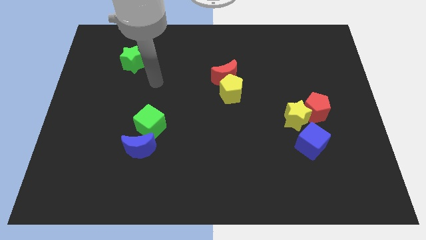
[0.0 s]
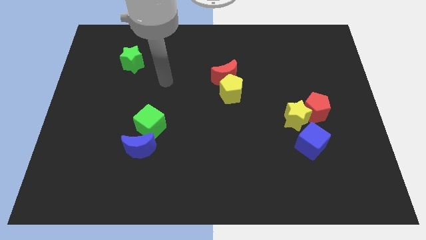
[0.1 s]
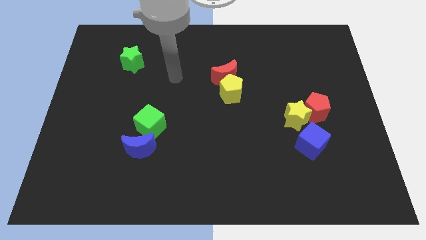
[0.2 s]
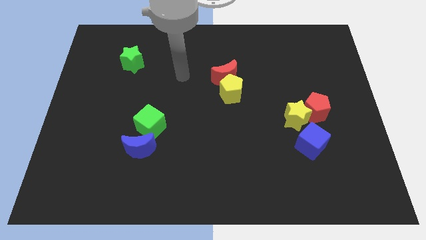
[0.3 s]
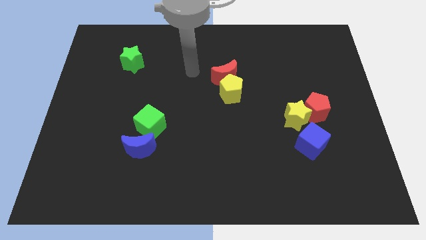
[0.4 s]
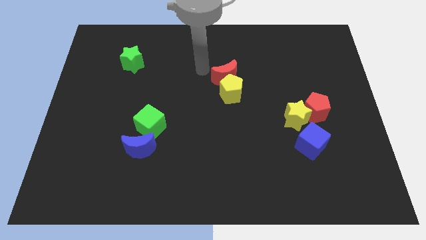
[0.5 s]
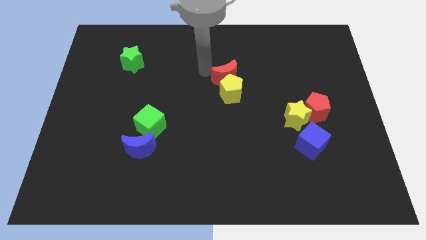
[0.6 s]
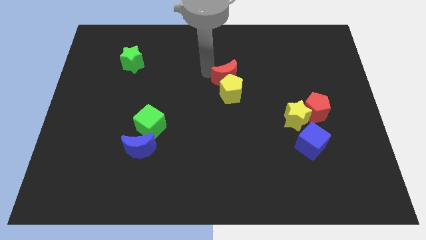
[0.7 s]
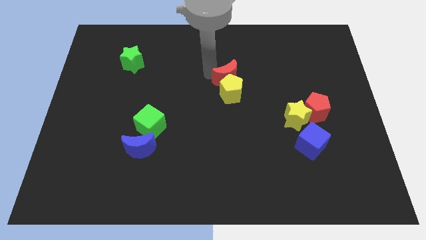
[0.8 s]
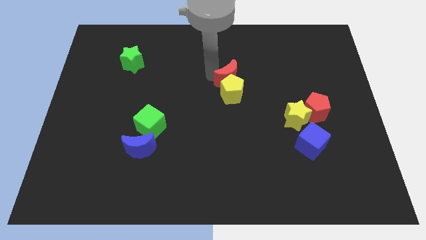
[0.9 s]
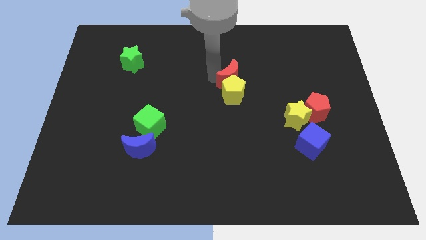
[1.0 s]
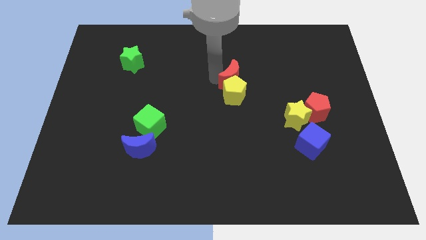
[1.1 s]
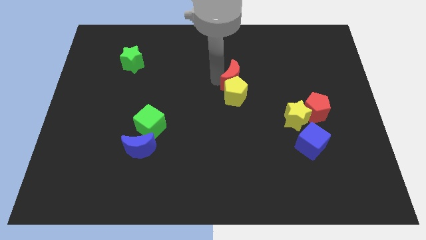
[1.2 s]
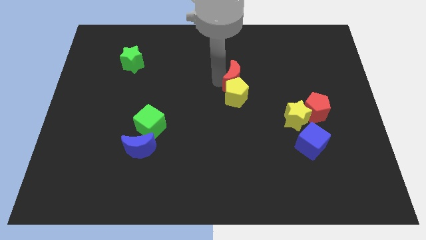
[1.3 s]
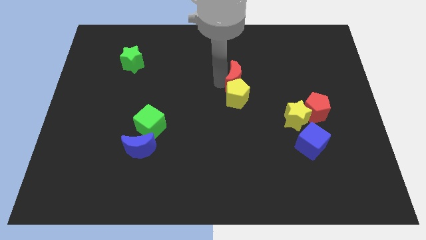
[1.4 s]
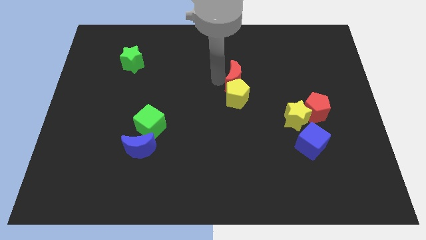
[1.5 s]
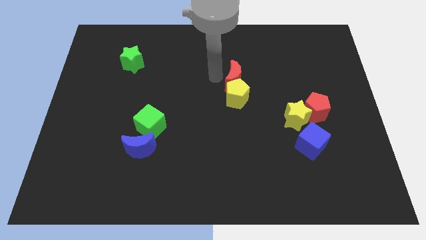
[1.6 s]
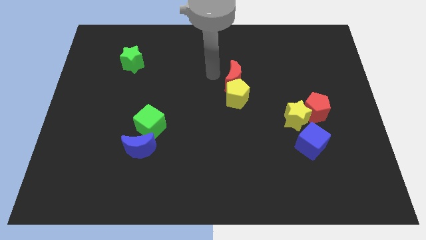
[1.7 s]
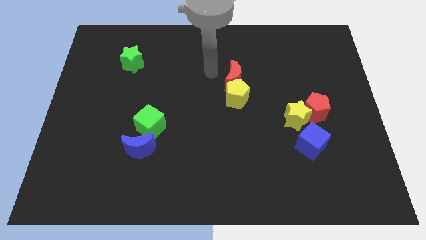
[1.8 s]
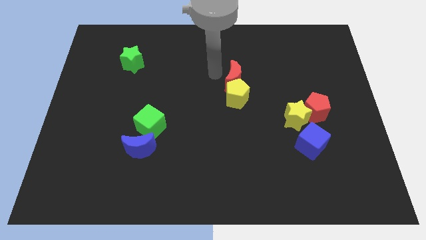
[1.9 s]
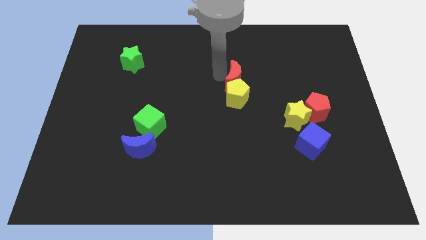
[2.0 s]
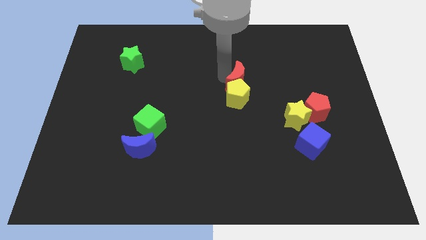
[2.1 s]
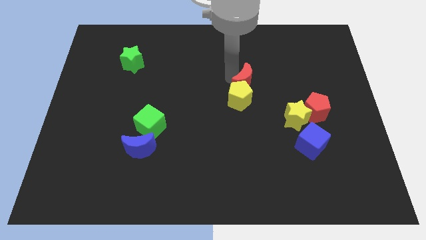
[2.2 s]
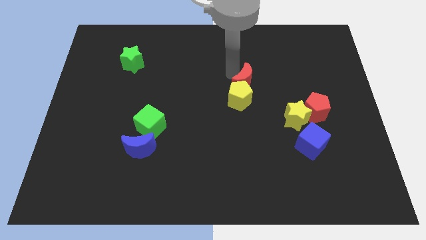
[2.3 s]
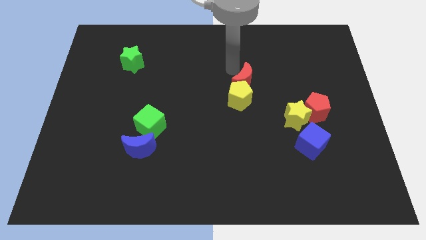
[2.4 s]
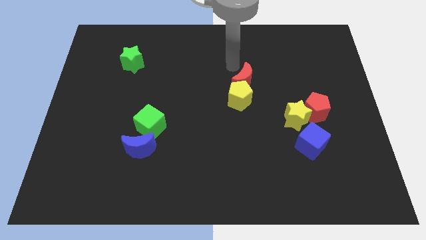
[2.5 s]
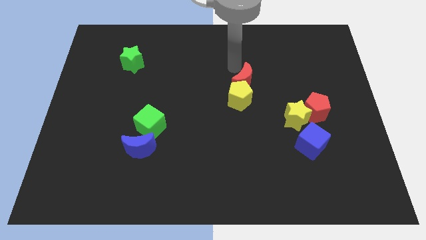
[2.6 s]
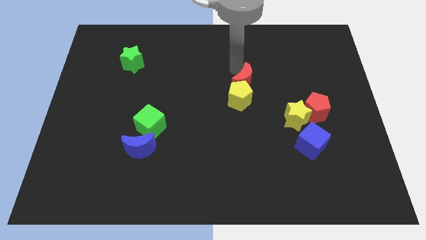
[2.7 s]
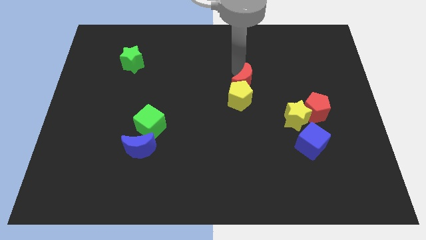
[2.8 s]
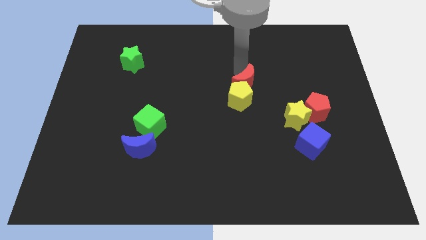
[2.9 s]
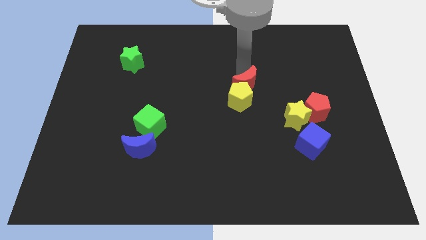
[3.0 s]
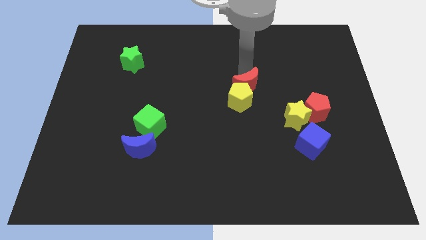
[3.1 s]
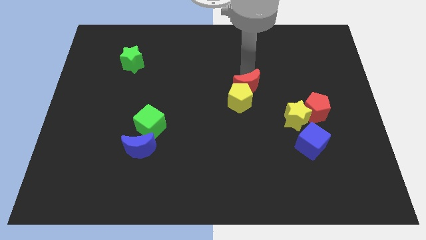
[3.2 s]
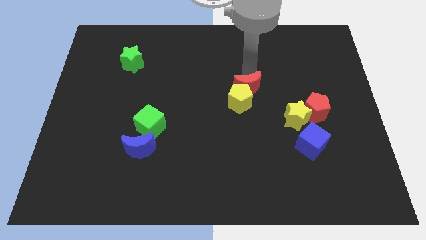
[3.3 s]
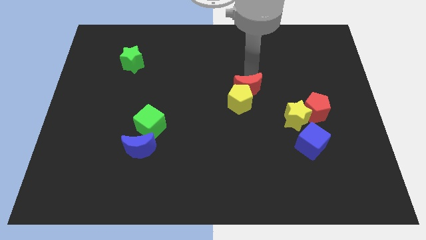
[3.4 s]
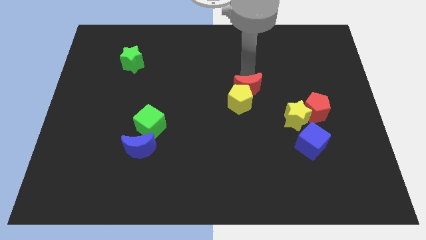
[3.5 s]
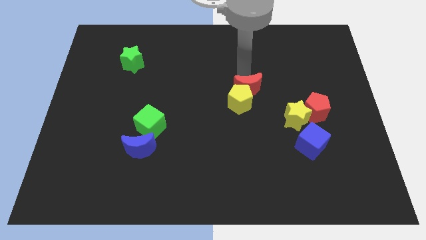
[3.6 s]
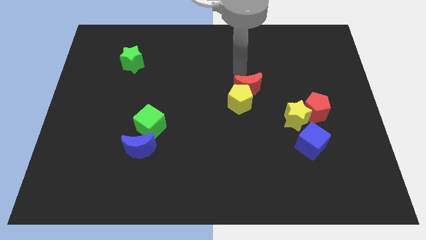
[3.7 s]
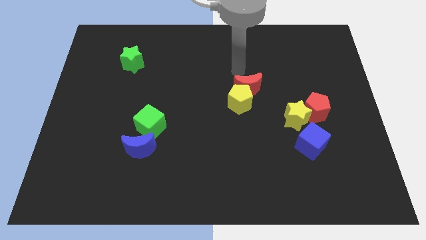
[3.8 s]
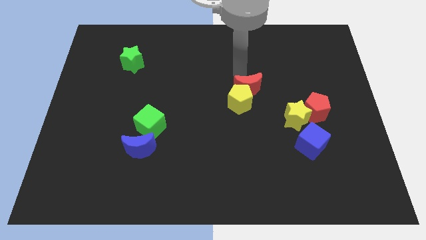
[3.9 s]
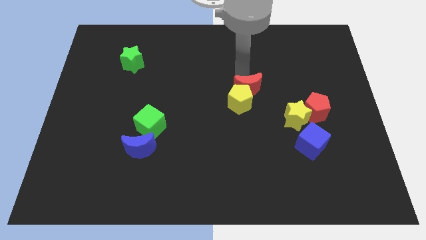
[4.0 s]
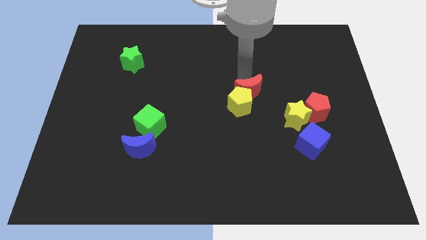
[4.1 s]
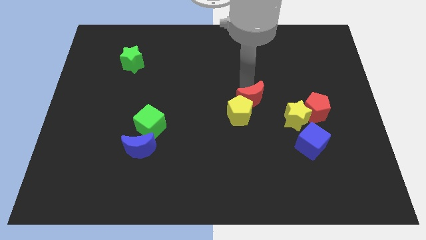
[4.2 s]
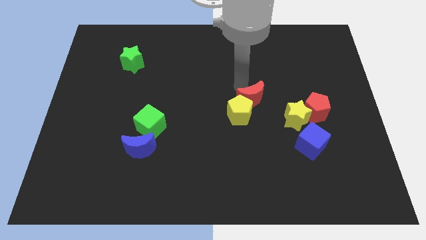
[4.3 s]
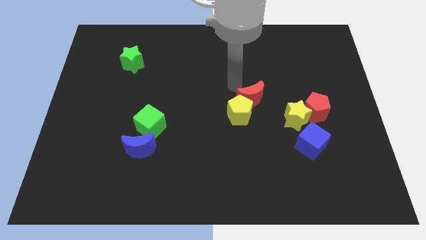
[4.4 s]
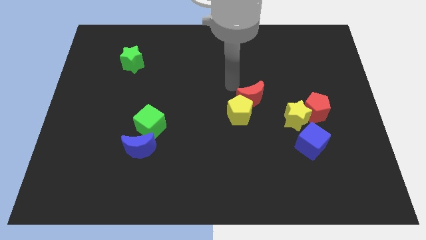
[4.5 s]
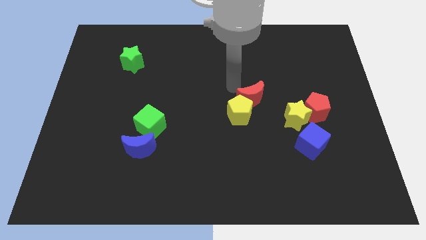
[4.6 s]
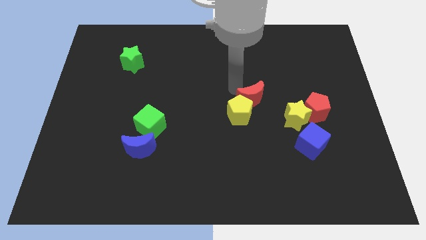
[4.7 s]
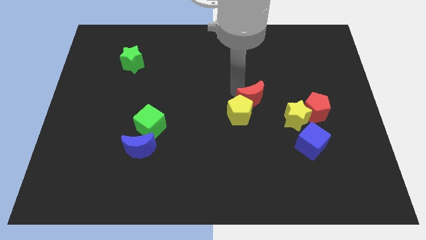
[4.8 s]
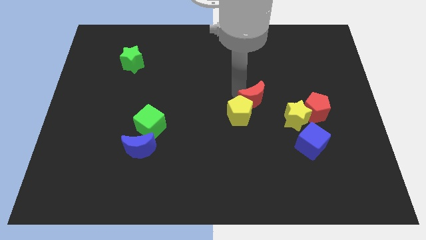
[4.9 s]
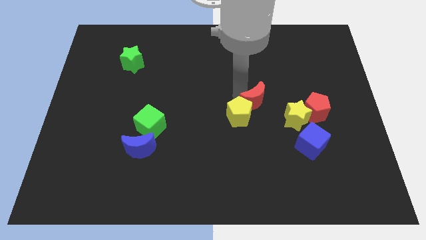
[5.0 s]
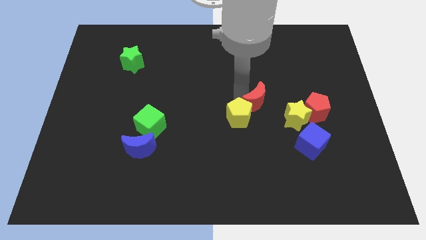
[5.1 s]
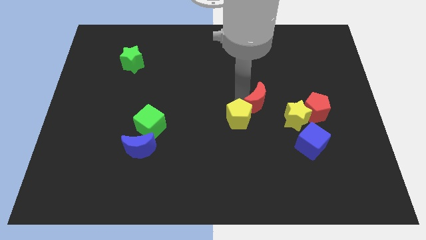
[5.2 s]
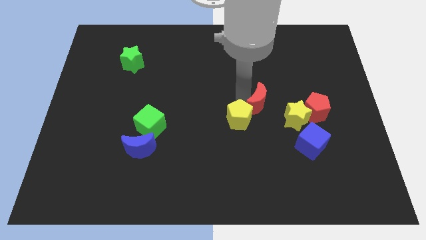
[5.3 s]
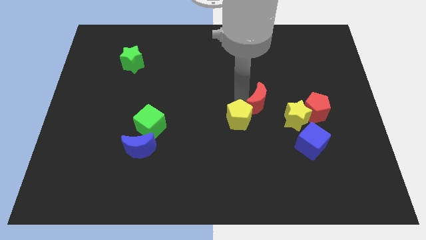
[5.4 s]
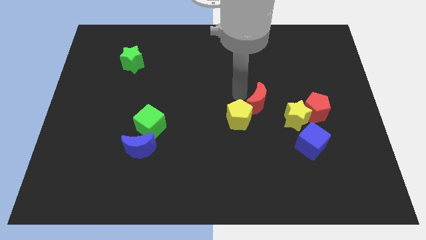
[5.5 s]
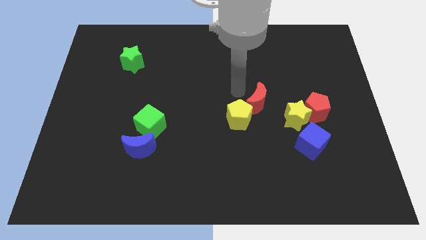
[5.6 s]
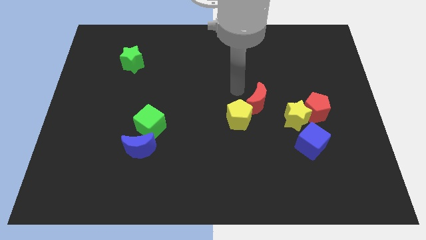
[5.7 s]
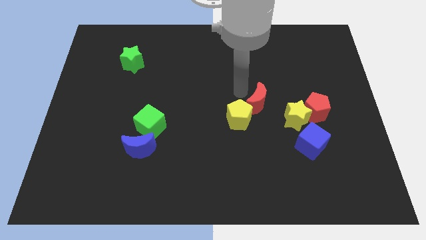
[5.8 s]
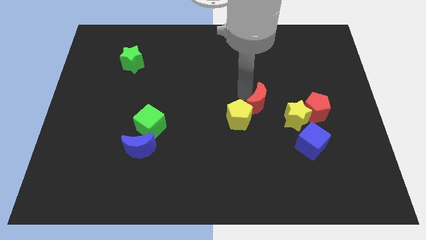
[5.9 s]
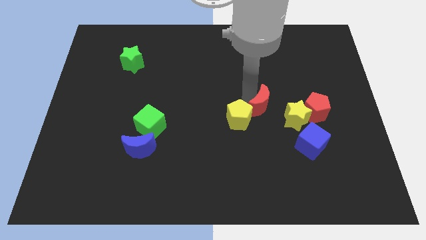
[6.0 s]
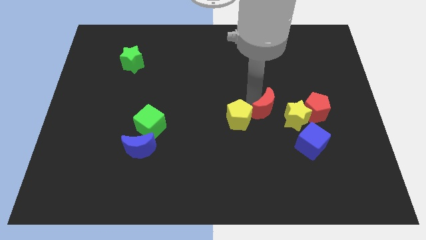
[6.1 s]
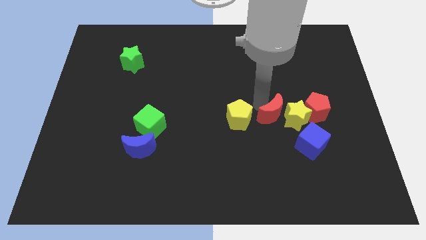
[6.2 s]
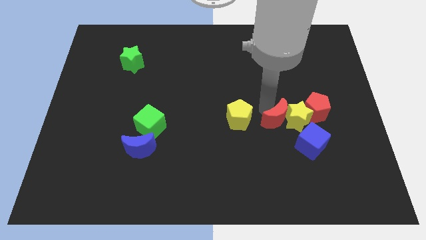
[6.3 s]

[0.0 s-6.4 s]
push the red moon to the bottom left of the red pentagon

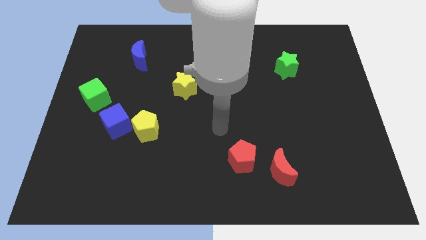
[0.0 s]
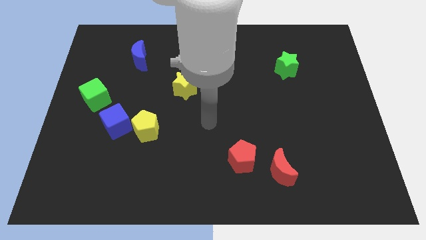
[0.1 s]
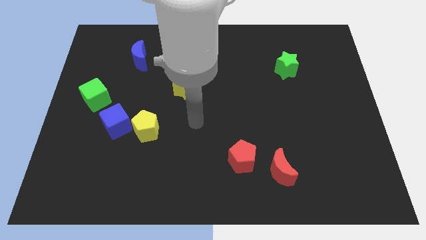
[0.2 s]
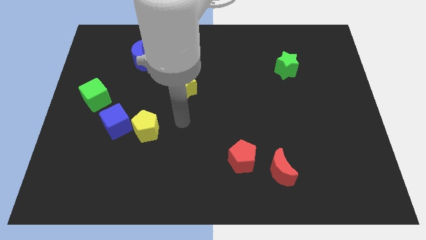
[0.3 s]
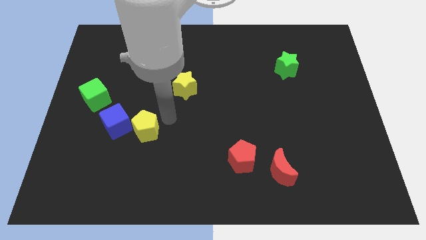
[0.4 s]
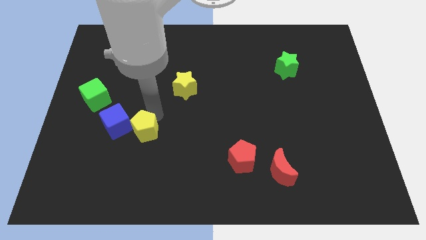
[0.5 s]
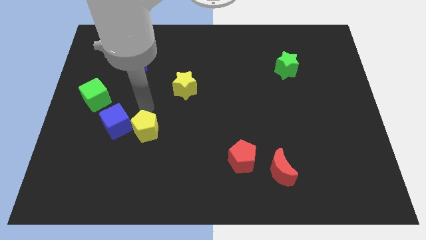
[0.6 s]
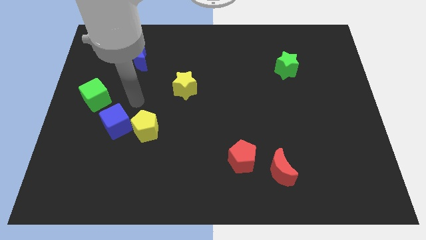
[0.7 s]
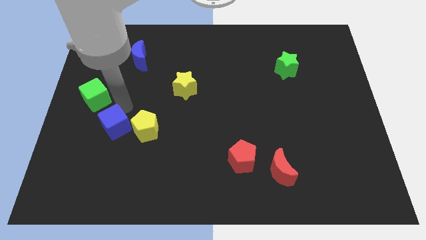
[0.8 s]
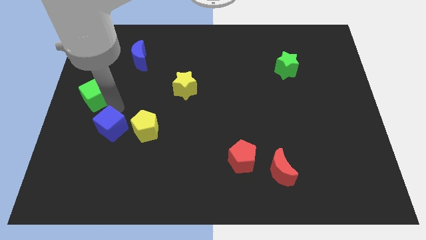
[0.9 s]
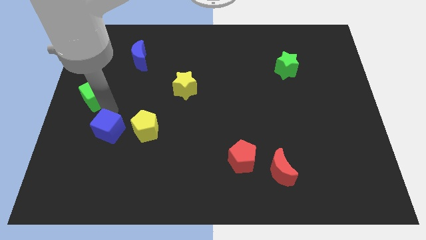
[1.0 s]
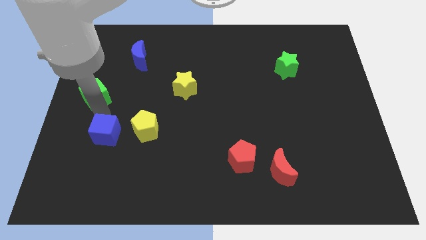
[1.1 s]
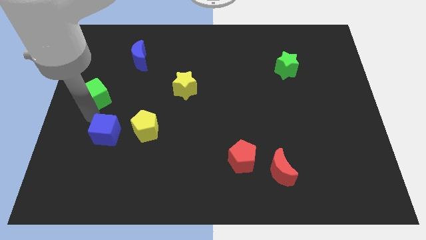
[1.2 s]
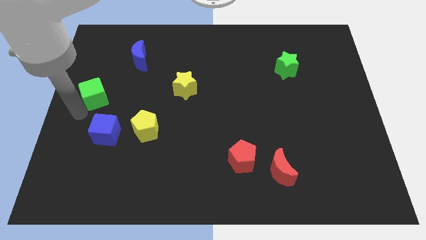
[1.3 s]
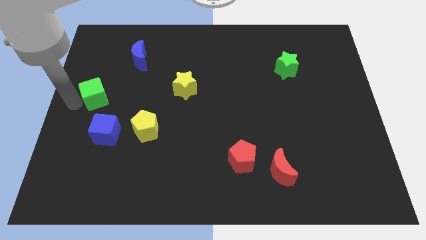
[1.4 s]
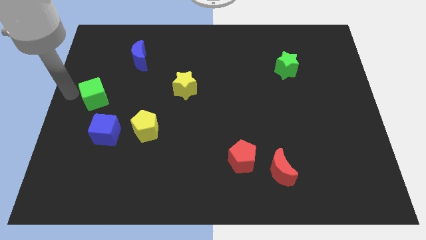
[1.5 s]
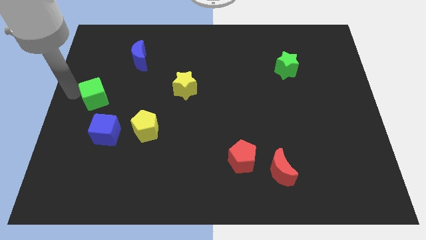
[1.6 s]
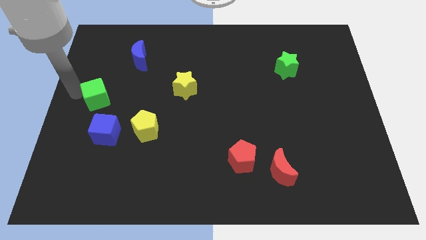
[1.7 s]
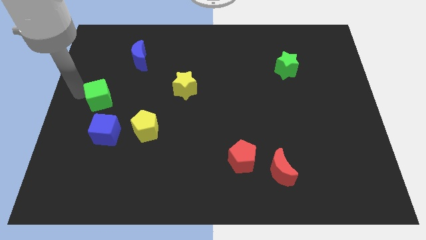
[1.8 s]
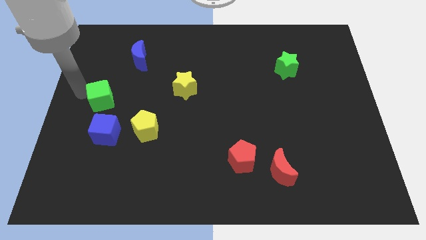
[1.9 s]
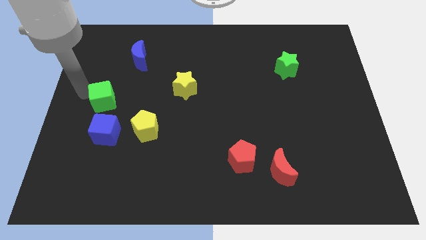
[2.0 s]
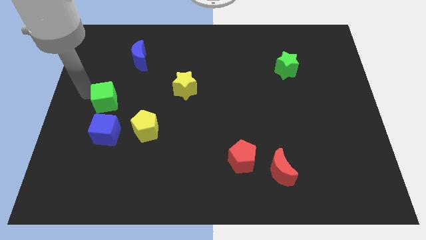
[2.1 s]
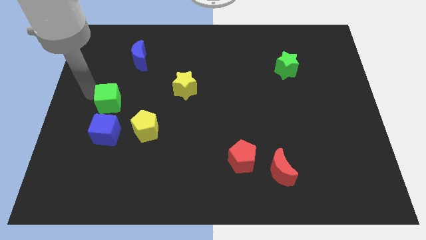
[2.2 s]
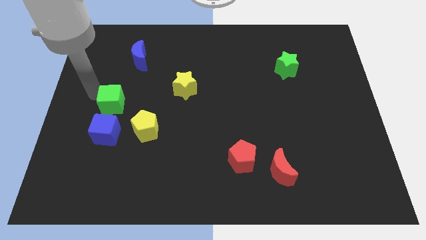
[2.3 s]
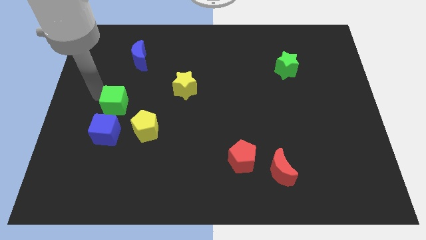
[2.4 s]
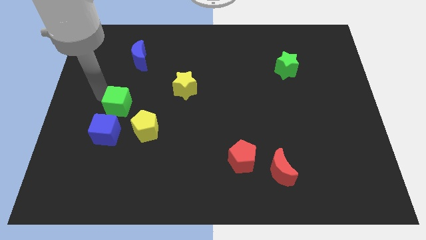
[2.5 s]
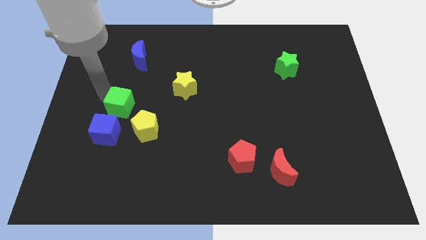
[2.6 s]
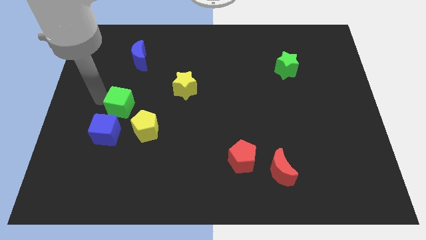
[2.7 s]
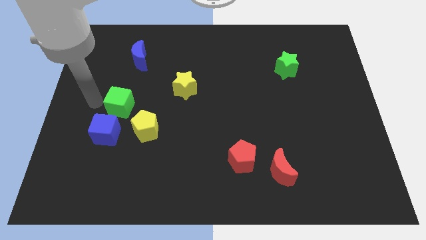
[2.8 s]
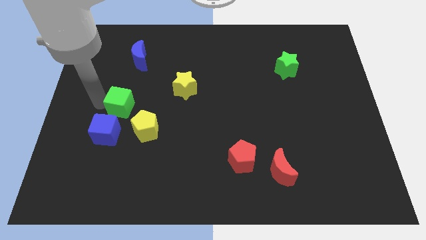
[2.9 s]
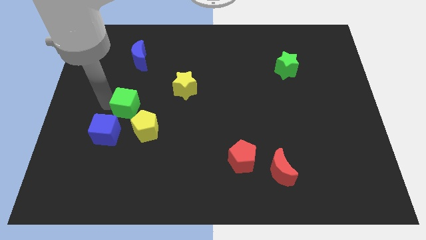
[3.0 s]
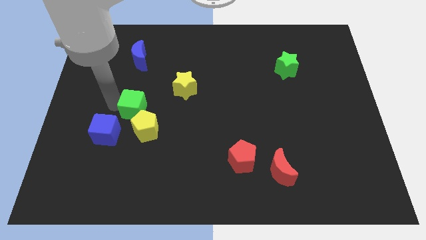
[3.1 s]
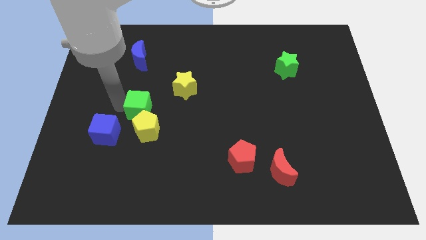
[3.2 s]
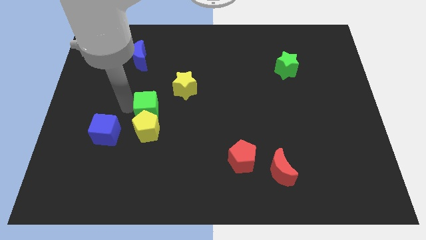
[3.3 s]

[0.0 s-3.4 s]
push the green cube to the top right side of the yellow pentagon
